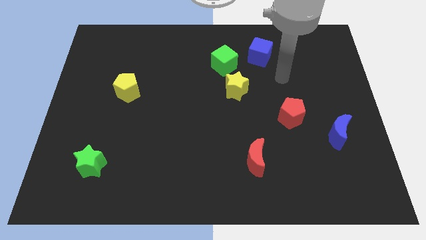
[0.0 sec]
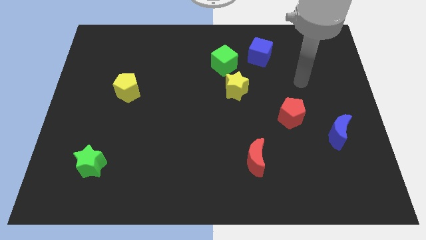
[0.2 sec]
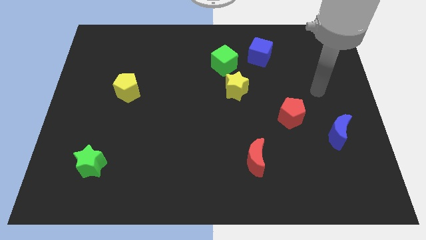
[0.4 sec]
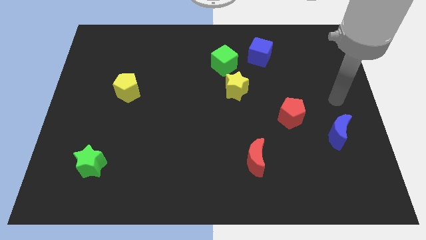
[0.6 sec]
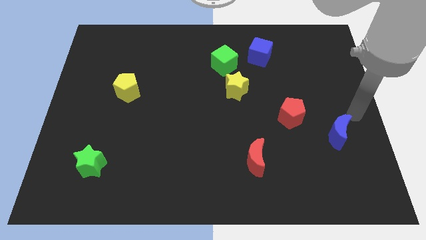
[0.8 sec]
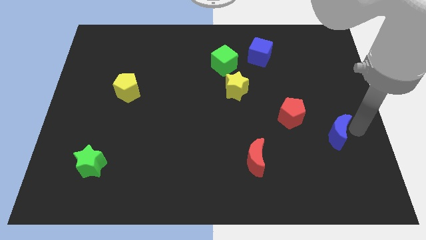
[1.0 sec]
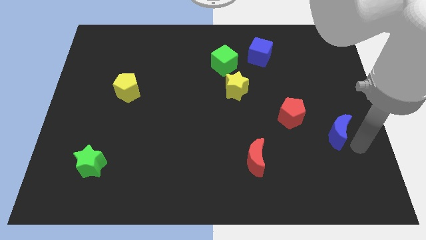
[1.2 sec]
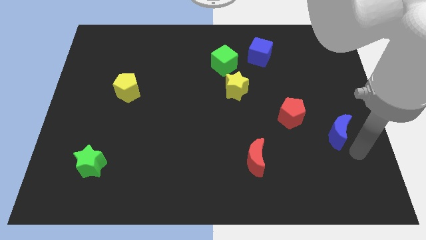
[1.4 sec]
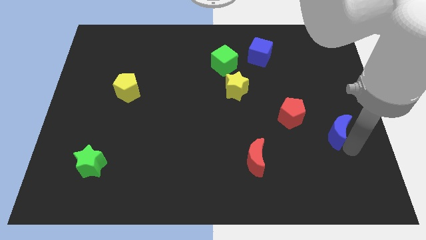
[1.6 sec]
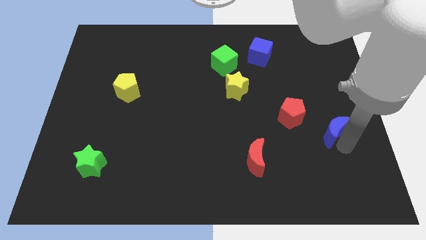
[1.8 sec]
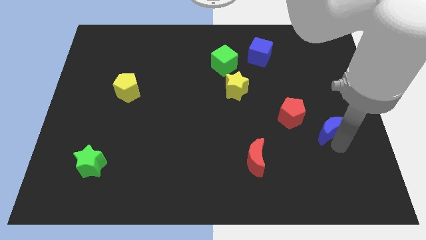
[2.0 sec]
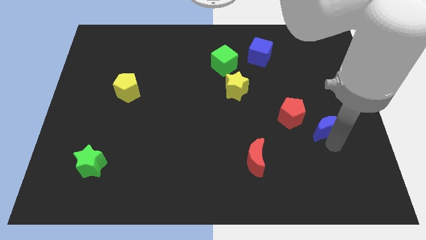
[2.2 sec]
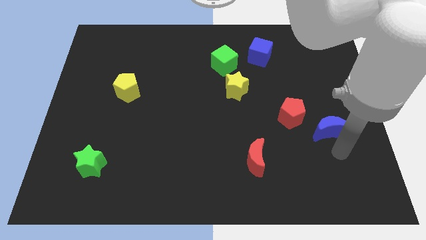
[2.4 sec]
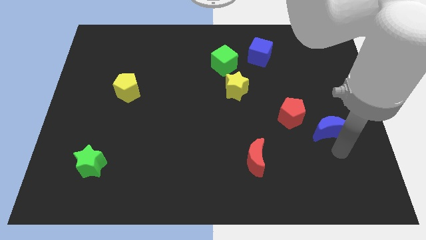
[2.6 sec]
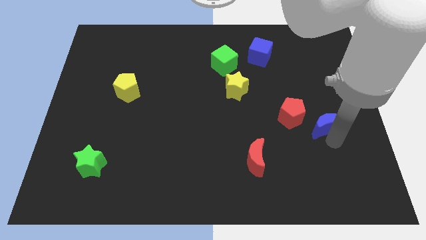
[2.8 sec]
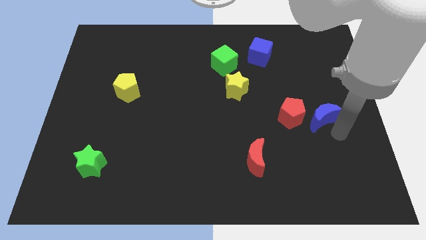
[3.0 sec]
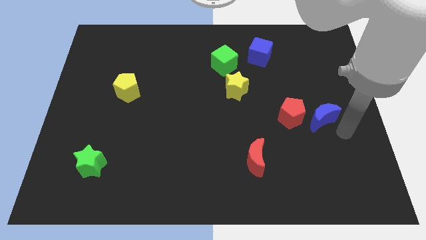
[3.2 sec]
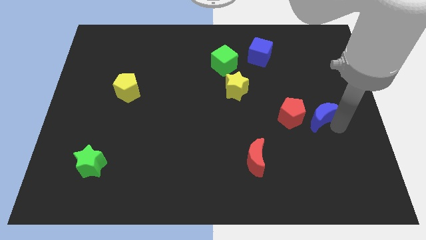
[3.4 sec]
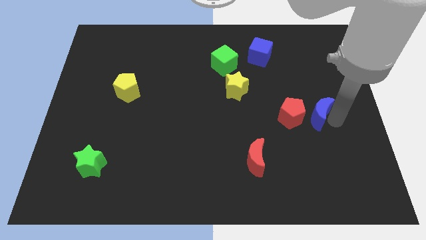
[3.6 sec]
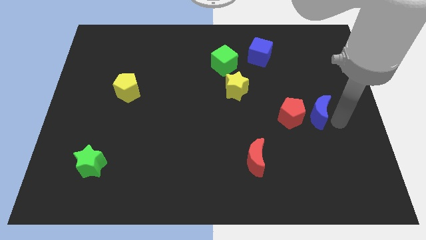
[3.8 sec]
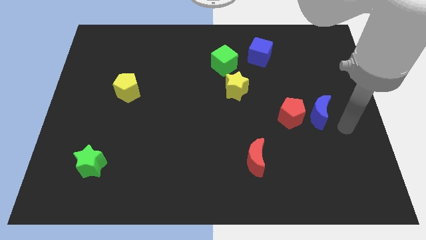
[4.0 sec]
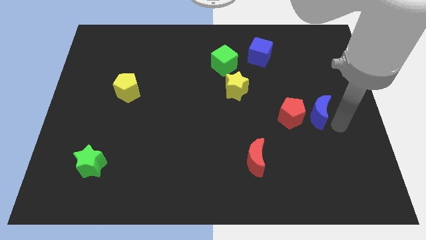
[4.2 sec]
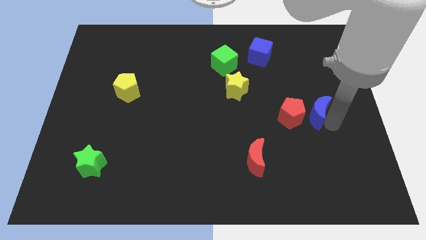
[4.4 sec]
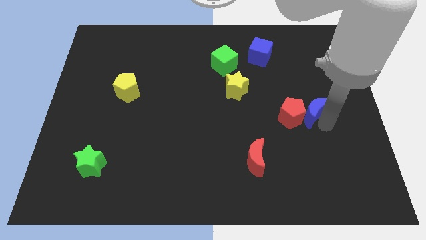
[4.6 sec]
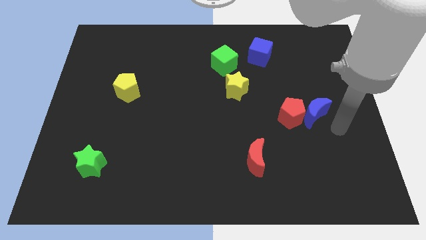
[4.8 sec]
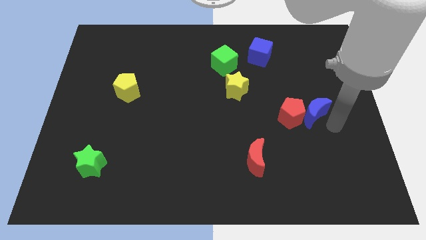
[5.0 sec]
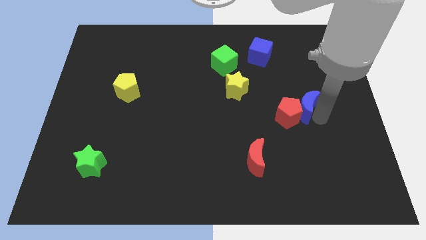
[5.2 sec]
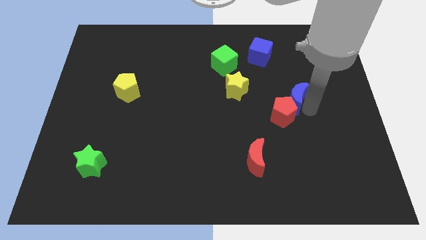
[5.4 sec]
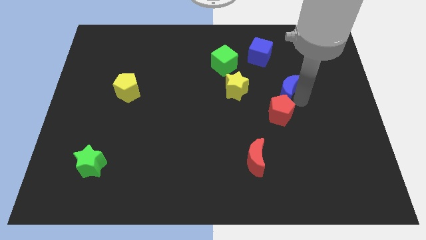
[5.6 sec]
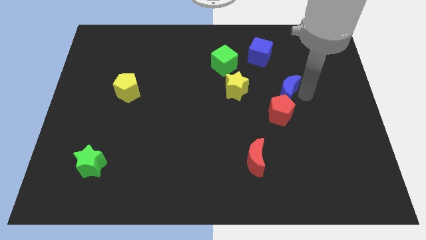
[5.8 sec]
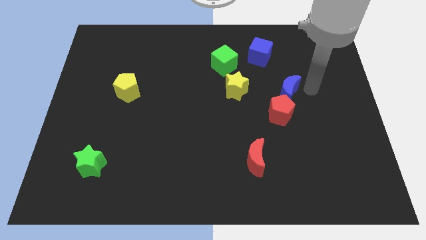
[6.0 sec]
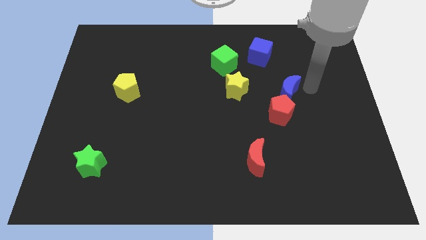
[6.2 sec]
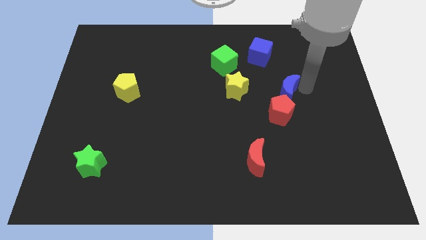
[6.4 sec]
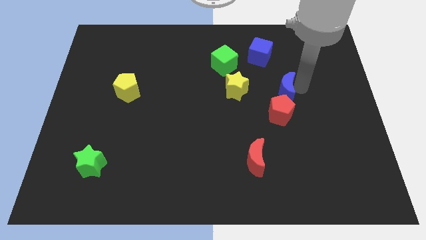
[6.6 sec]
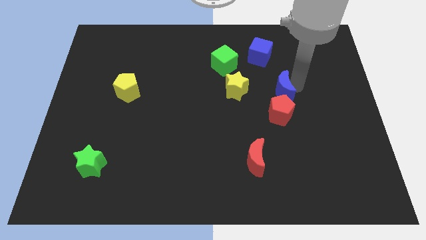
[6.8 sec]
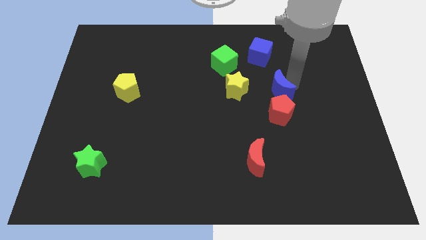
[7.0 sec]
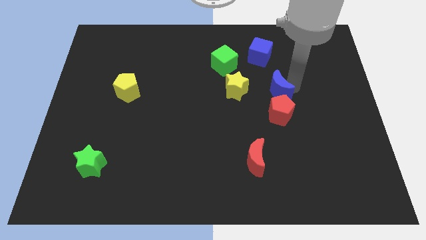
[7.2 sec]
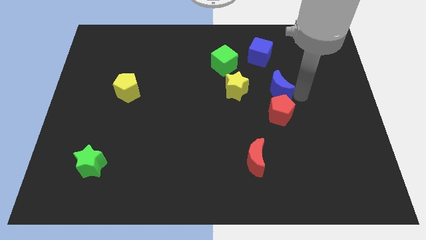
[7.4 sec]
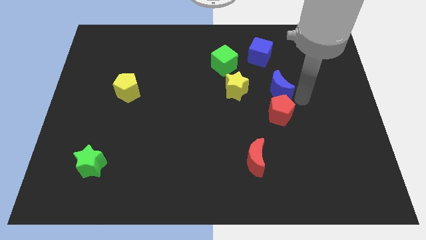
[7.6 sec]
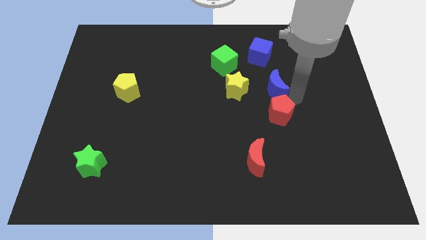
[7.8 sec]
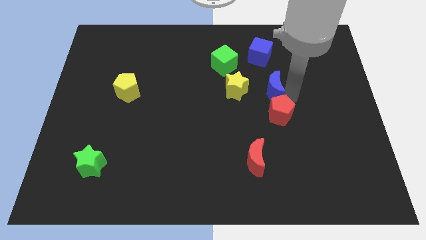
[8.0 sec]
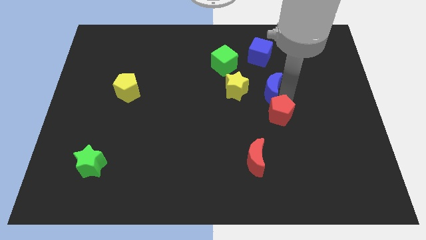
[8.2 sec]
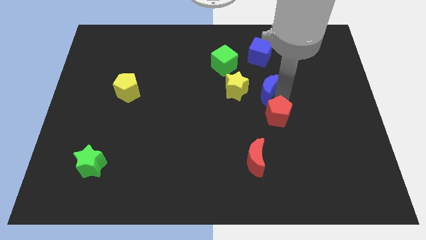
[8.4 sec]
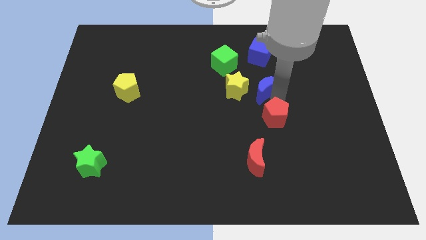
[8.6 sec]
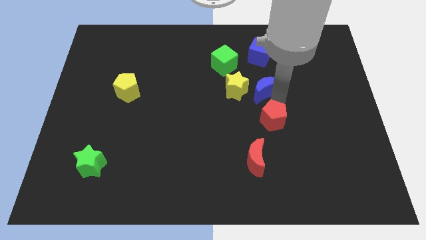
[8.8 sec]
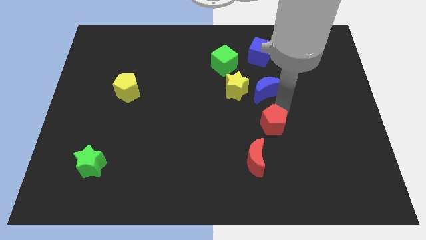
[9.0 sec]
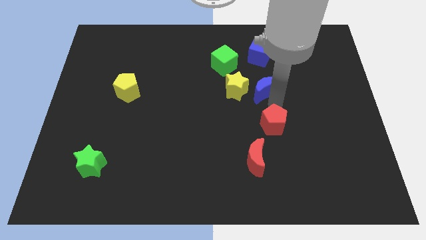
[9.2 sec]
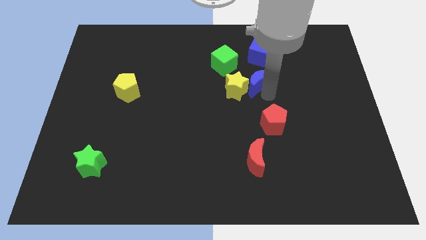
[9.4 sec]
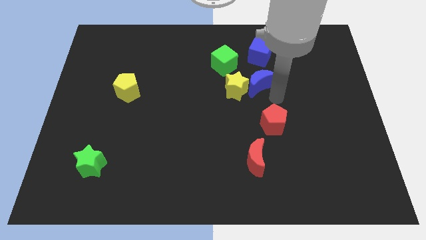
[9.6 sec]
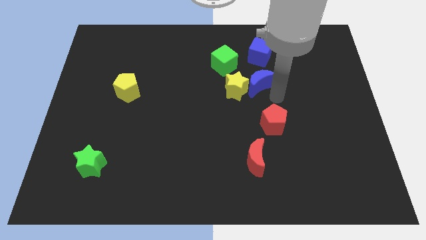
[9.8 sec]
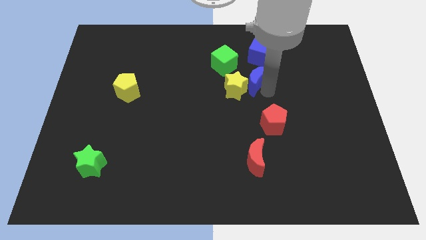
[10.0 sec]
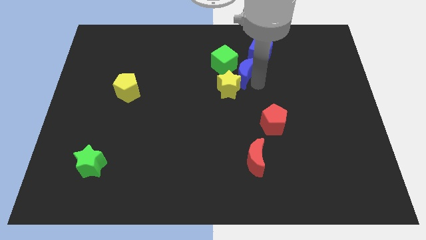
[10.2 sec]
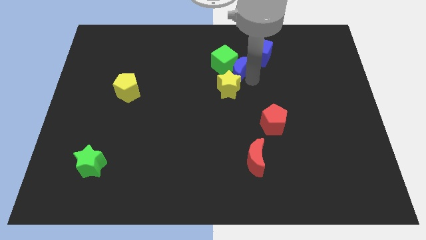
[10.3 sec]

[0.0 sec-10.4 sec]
move the blue moon to the green cube

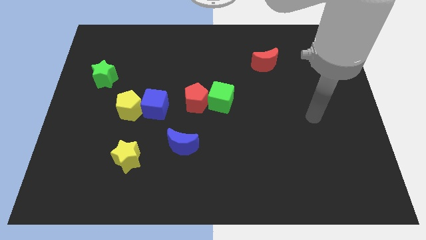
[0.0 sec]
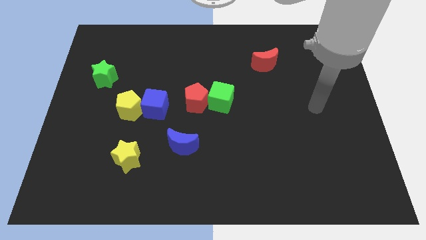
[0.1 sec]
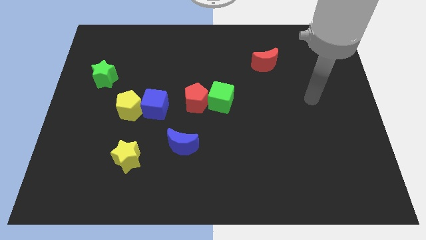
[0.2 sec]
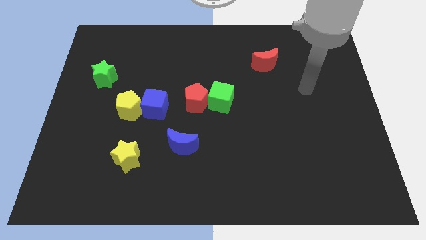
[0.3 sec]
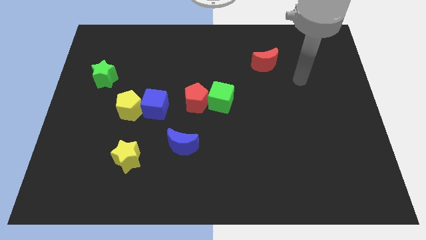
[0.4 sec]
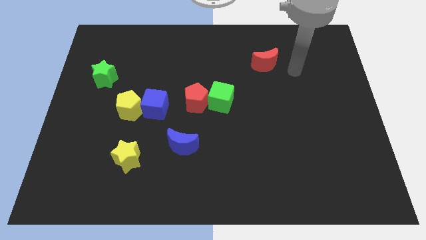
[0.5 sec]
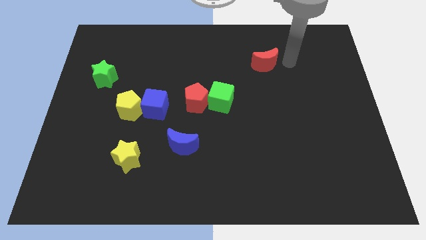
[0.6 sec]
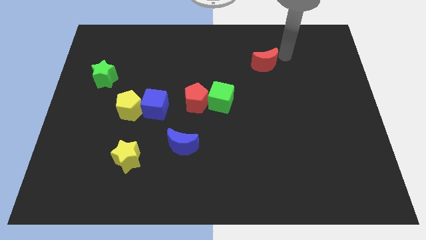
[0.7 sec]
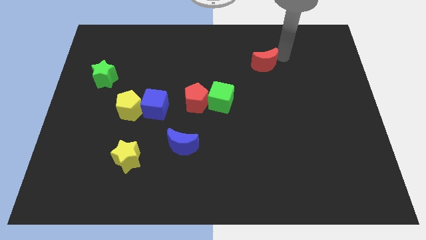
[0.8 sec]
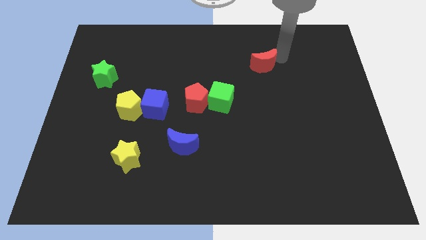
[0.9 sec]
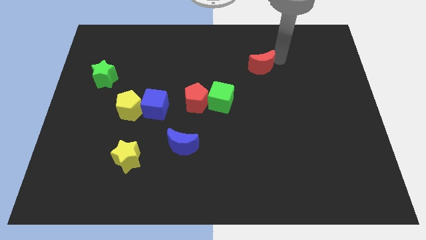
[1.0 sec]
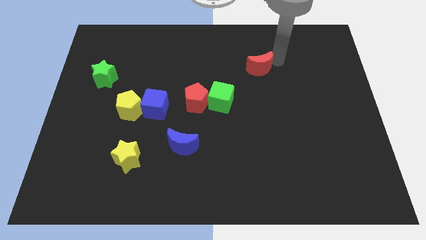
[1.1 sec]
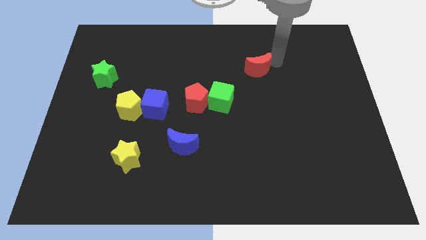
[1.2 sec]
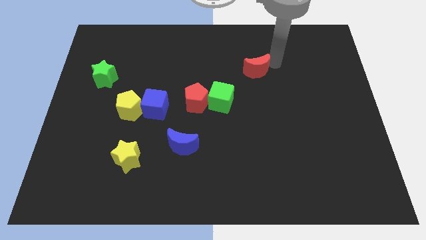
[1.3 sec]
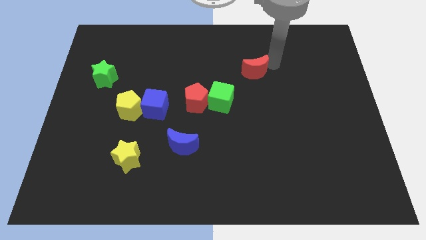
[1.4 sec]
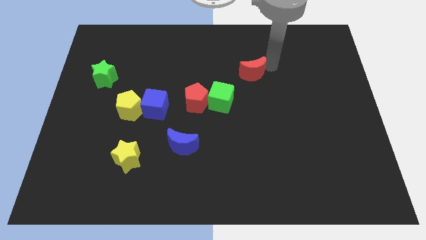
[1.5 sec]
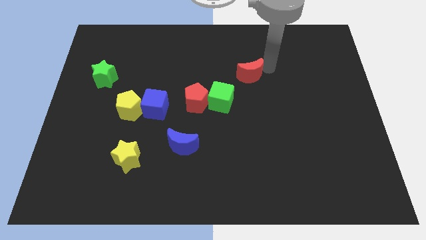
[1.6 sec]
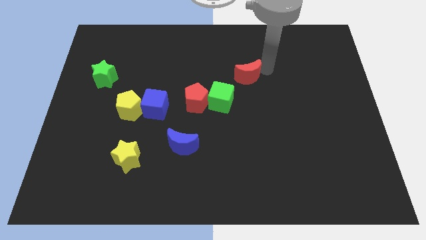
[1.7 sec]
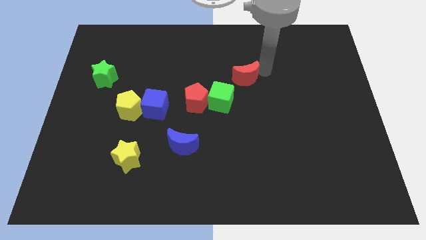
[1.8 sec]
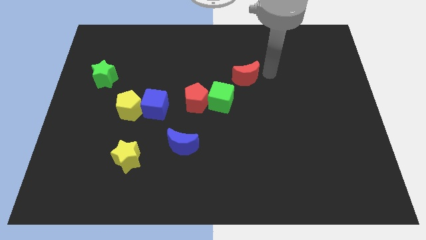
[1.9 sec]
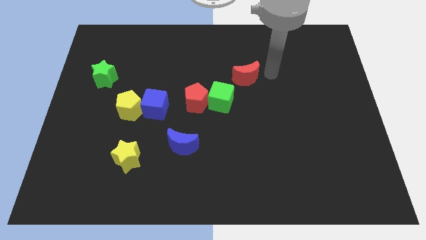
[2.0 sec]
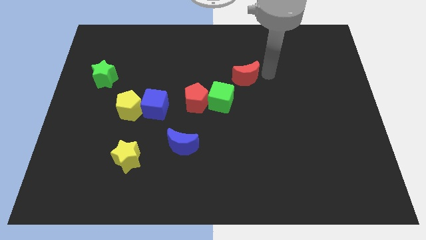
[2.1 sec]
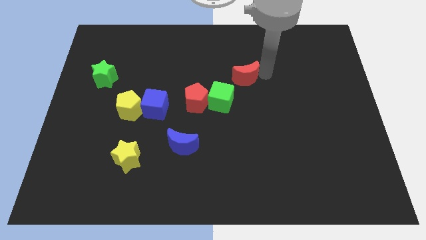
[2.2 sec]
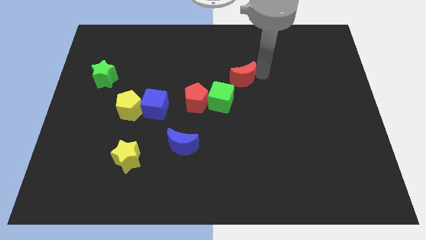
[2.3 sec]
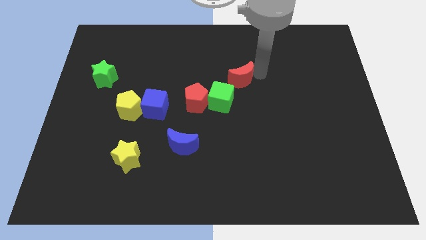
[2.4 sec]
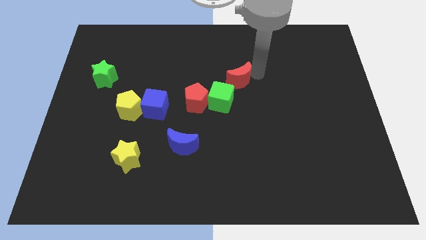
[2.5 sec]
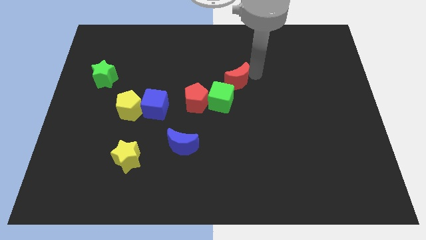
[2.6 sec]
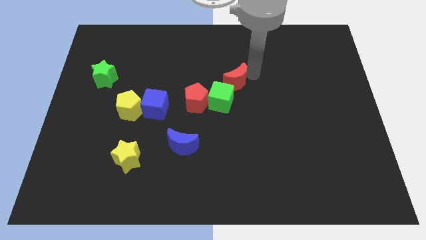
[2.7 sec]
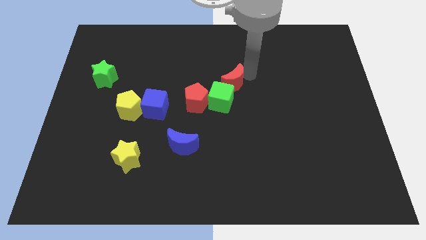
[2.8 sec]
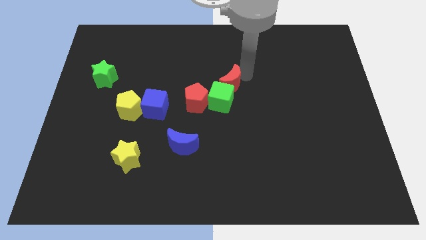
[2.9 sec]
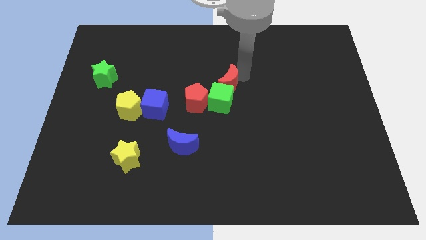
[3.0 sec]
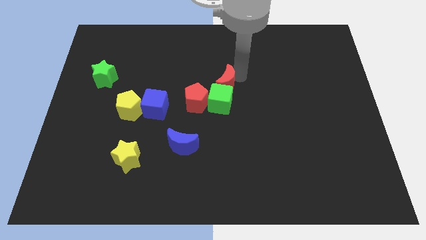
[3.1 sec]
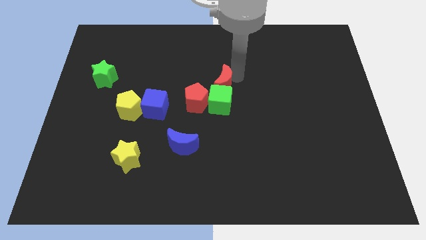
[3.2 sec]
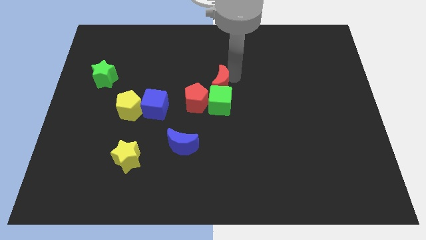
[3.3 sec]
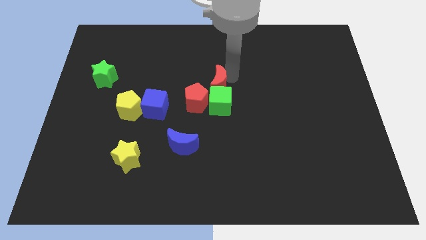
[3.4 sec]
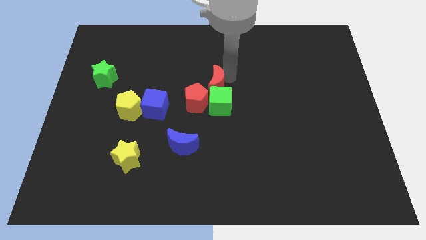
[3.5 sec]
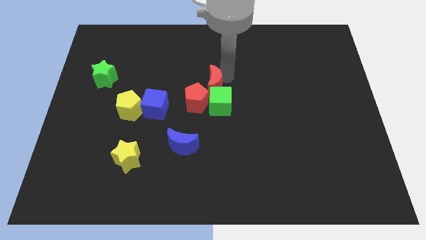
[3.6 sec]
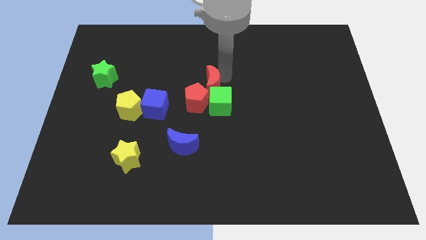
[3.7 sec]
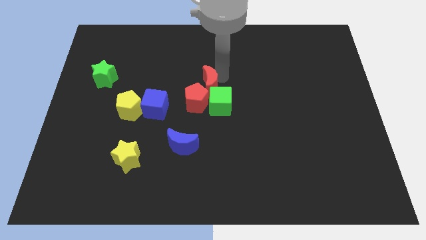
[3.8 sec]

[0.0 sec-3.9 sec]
slide the red moon to the red pentagon
